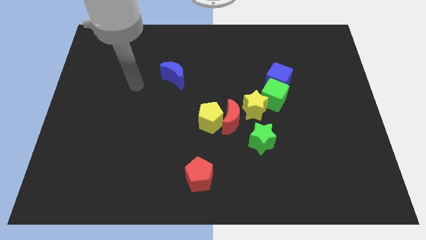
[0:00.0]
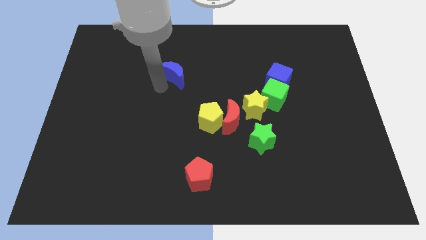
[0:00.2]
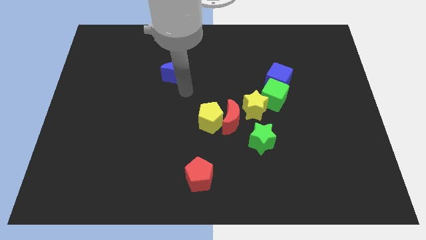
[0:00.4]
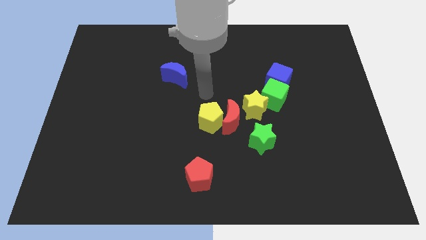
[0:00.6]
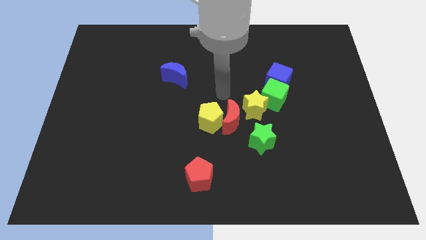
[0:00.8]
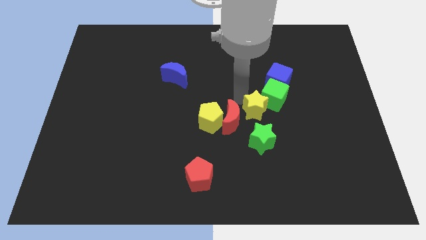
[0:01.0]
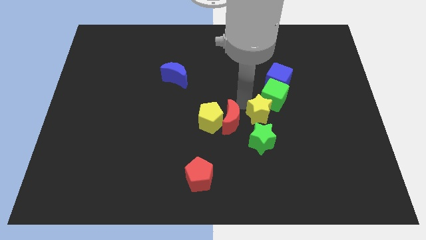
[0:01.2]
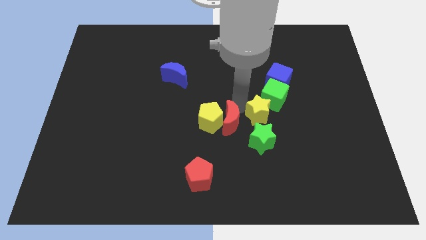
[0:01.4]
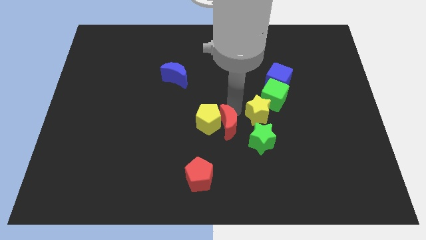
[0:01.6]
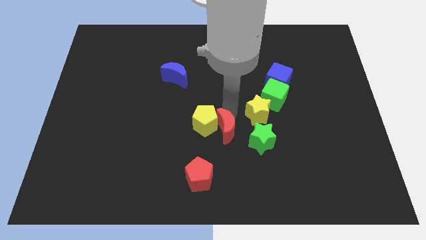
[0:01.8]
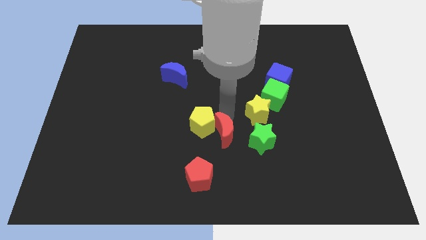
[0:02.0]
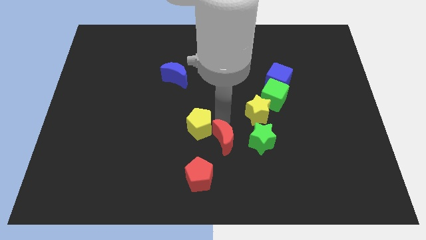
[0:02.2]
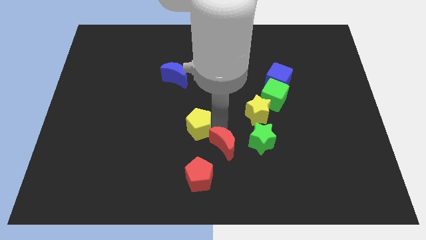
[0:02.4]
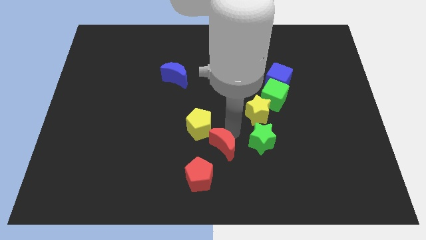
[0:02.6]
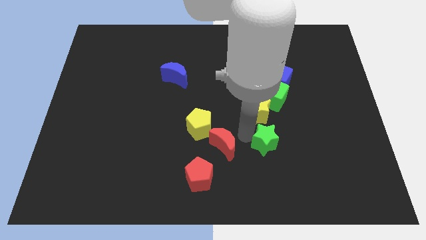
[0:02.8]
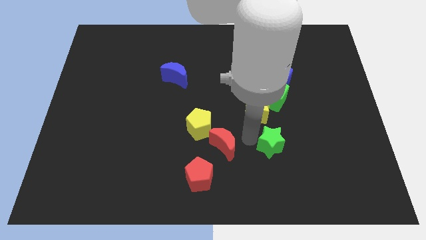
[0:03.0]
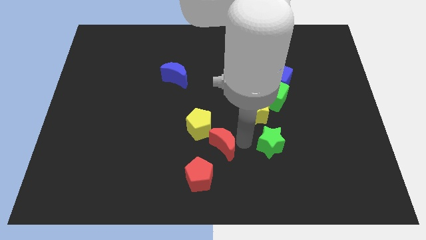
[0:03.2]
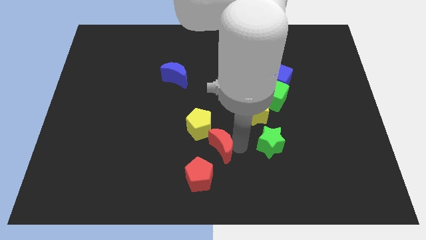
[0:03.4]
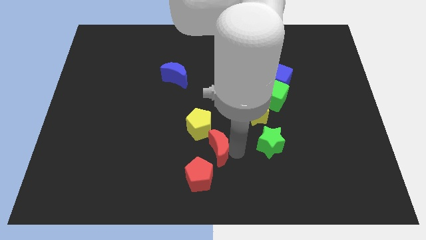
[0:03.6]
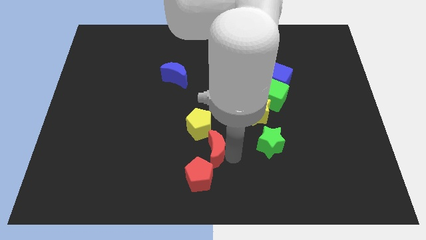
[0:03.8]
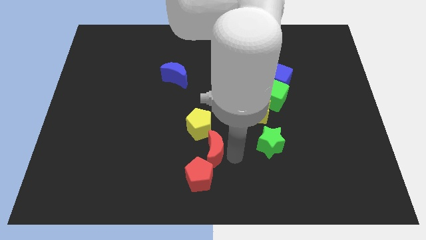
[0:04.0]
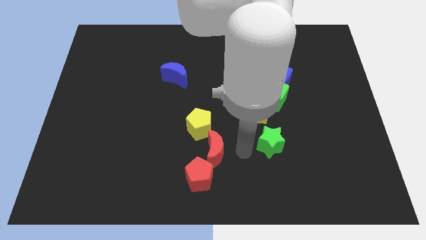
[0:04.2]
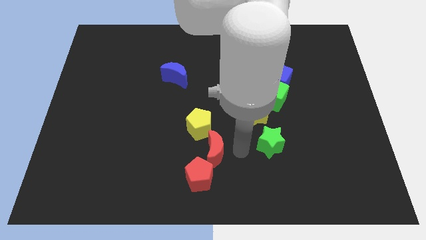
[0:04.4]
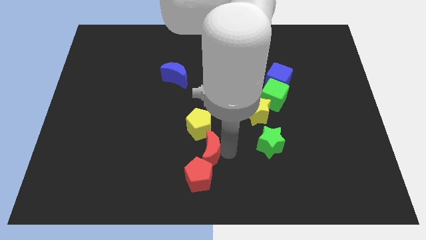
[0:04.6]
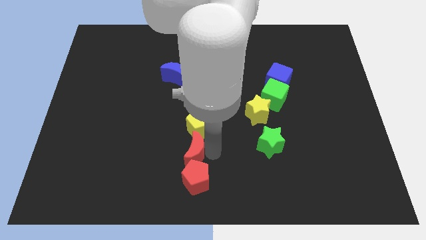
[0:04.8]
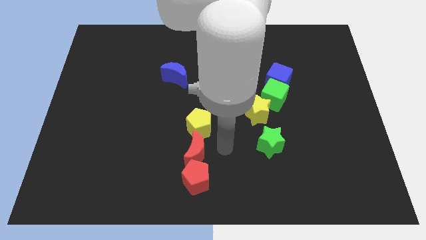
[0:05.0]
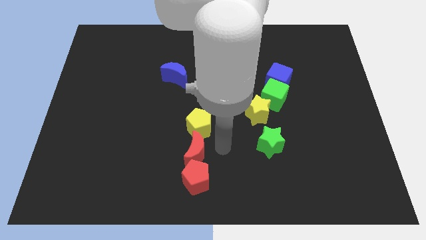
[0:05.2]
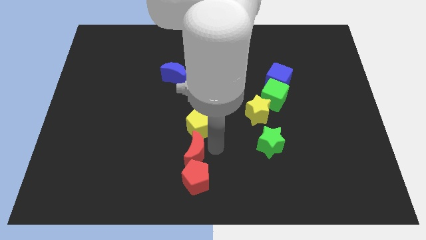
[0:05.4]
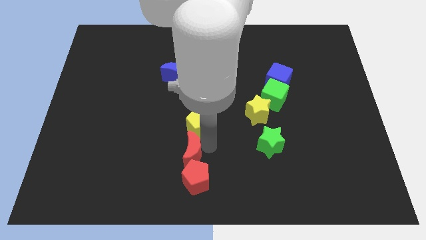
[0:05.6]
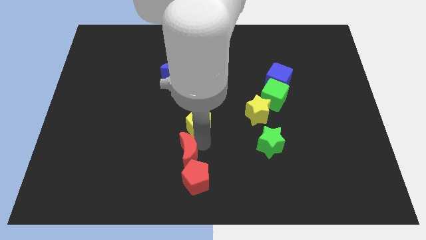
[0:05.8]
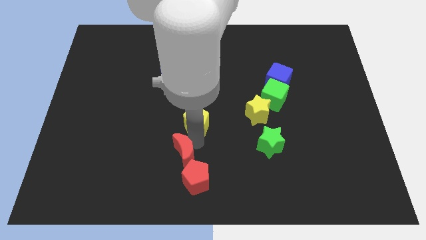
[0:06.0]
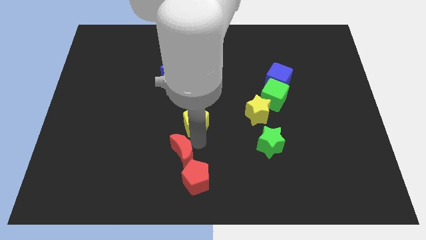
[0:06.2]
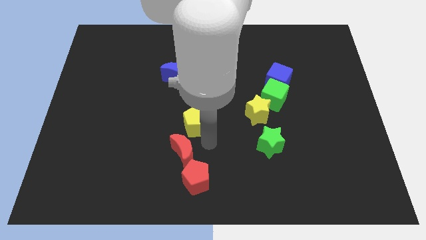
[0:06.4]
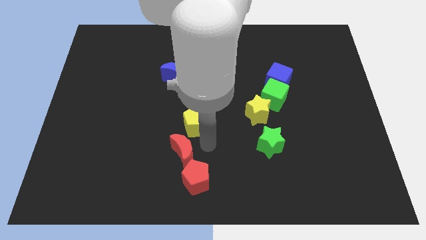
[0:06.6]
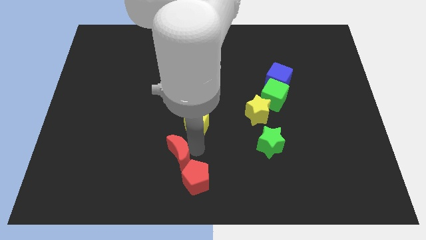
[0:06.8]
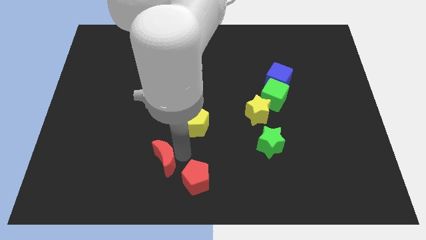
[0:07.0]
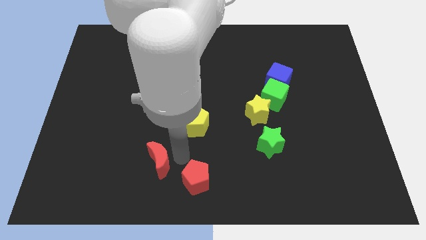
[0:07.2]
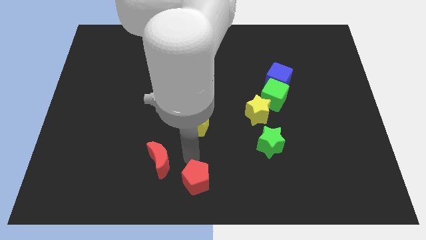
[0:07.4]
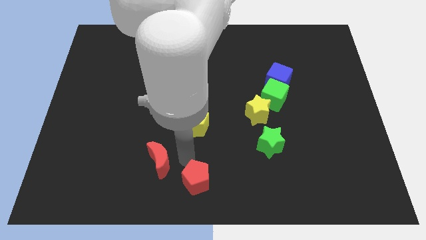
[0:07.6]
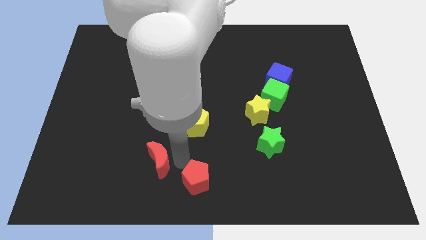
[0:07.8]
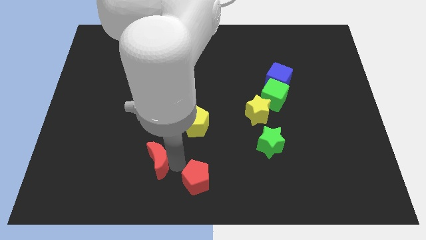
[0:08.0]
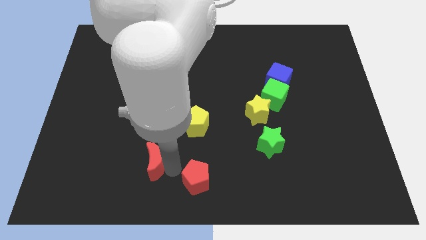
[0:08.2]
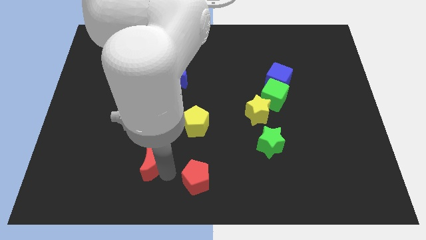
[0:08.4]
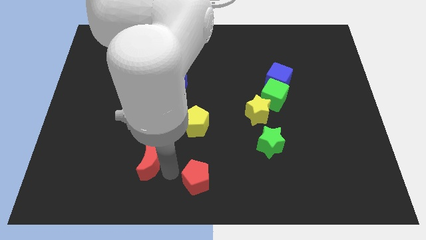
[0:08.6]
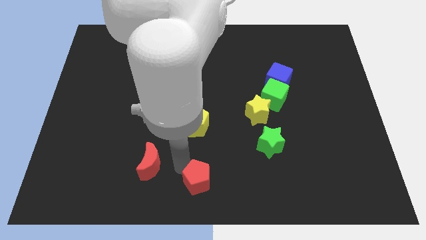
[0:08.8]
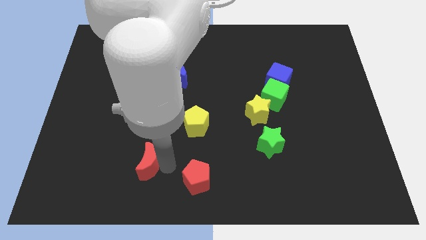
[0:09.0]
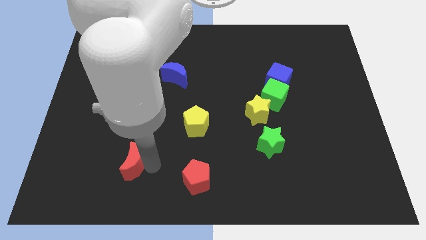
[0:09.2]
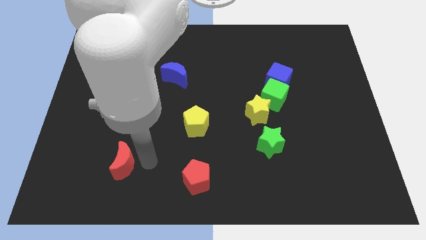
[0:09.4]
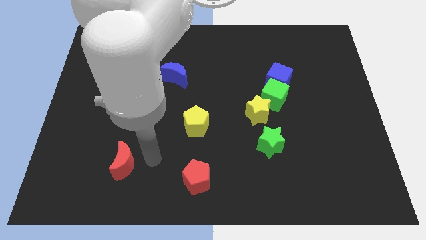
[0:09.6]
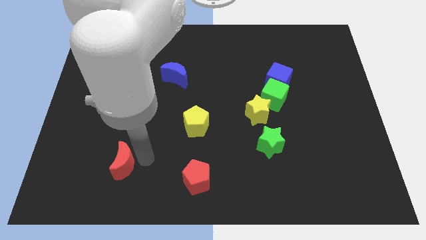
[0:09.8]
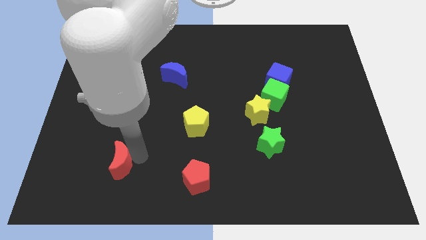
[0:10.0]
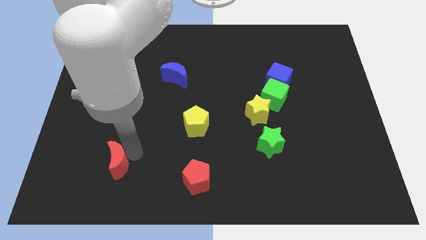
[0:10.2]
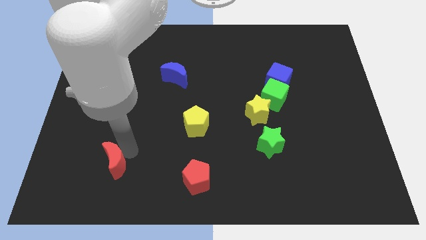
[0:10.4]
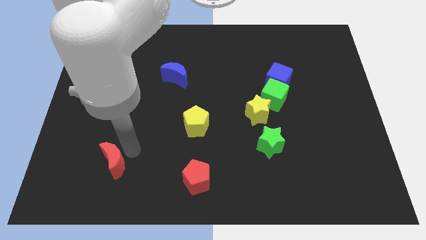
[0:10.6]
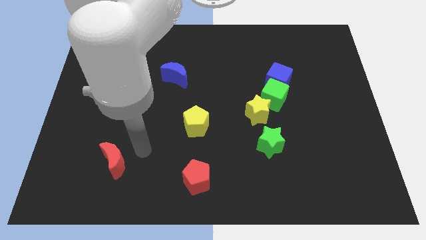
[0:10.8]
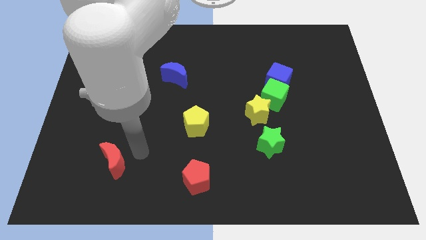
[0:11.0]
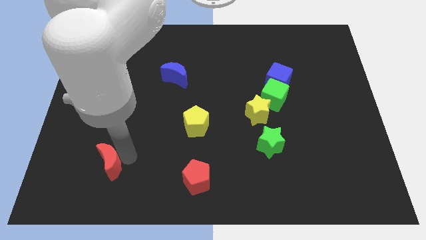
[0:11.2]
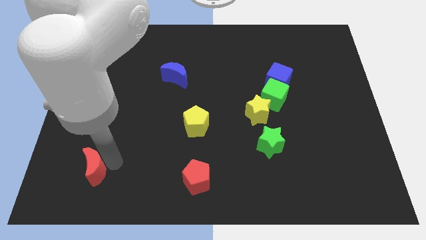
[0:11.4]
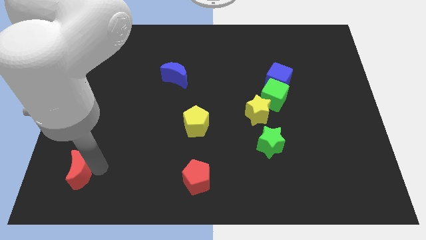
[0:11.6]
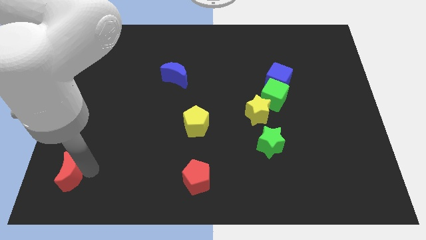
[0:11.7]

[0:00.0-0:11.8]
slide the red moon to the bottom left corner

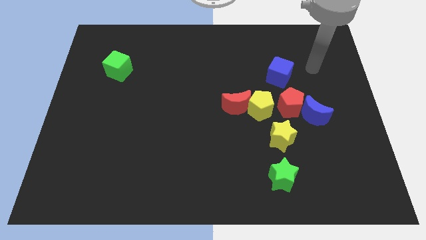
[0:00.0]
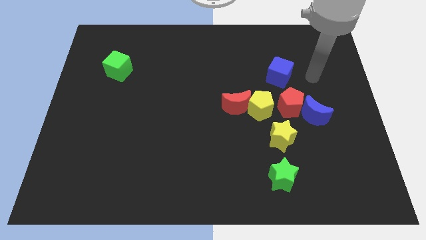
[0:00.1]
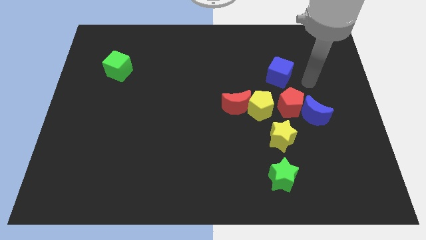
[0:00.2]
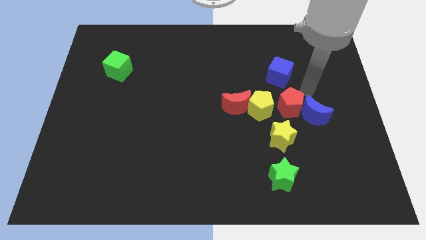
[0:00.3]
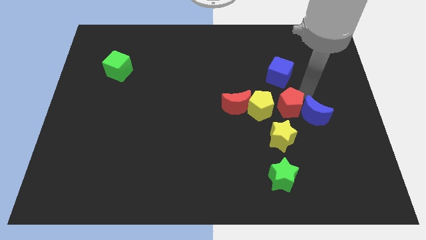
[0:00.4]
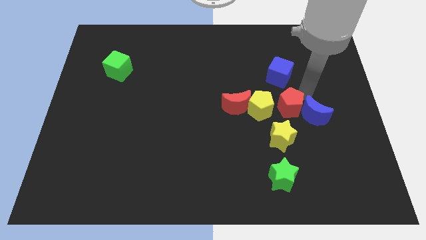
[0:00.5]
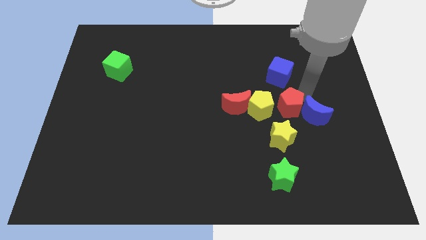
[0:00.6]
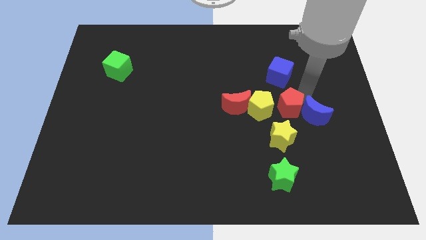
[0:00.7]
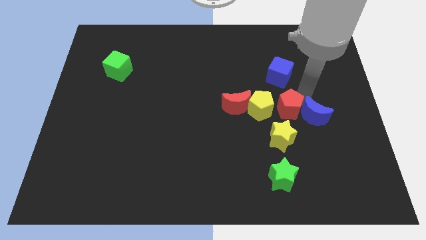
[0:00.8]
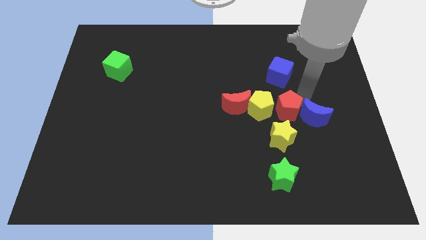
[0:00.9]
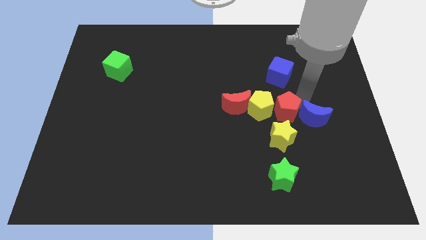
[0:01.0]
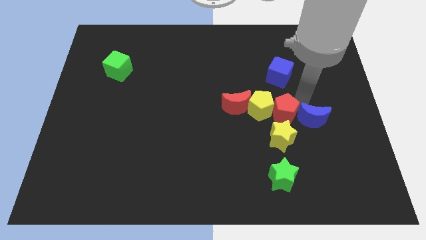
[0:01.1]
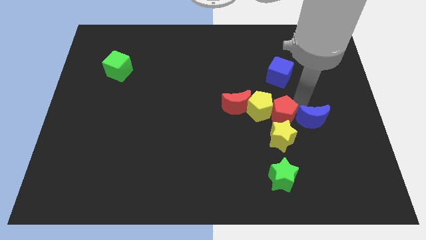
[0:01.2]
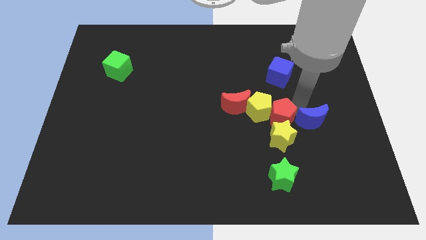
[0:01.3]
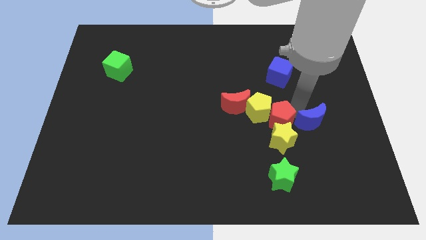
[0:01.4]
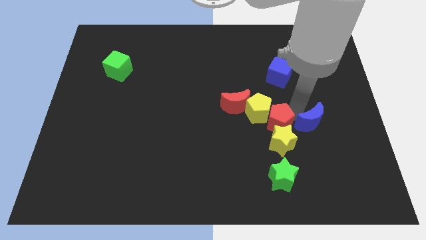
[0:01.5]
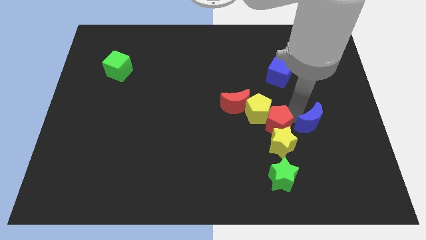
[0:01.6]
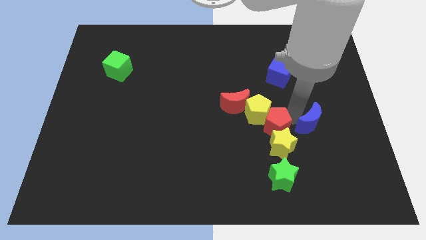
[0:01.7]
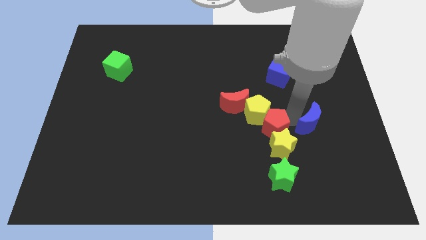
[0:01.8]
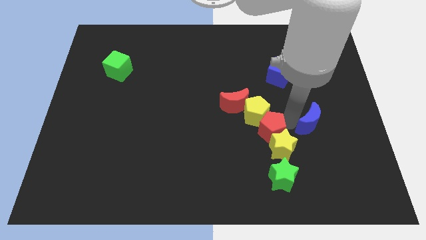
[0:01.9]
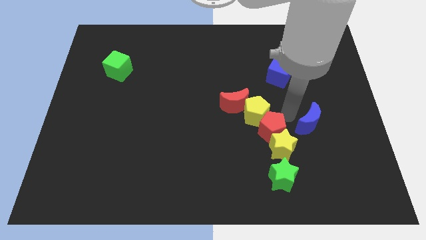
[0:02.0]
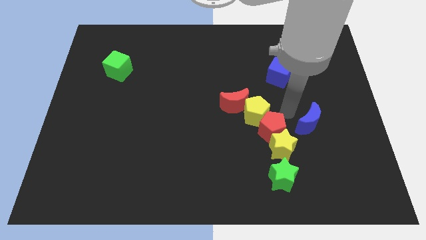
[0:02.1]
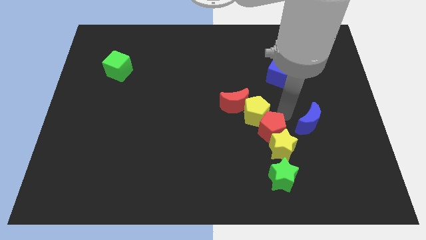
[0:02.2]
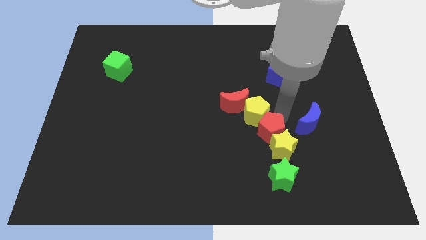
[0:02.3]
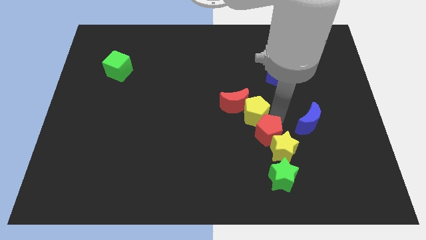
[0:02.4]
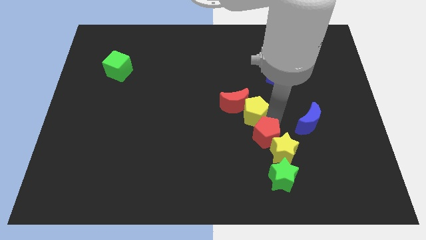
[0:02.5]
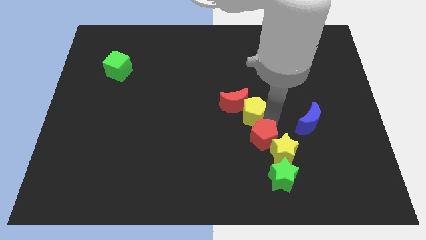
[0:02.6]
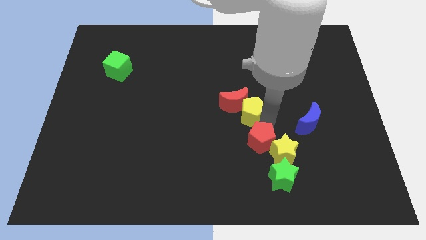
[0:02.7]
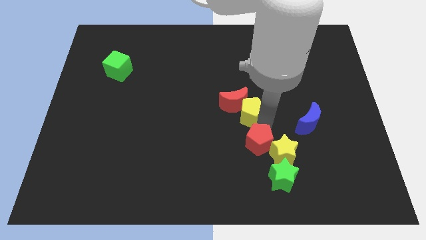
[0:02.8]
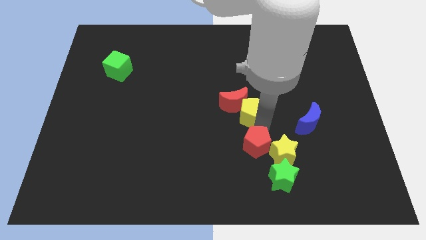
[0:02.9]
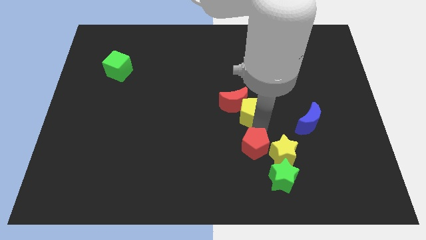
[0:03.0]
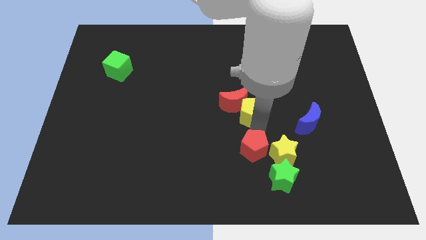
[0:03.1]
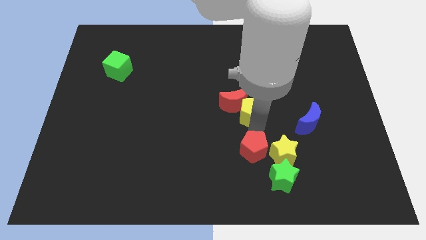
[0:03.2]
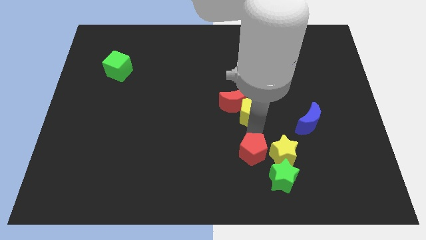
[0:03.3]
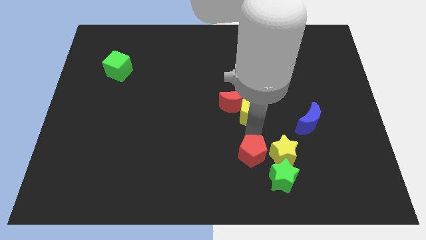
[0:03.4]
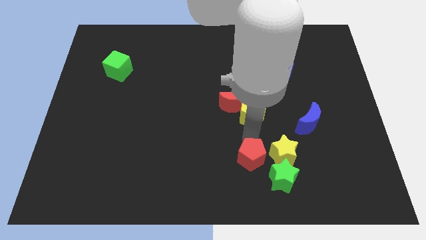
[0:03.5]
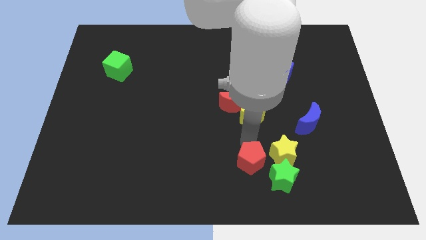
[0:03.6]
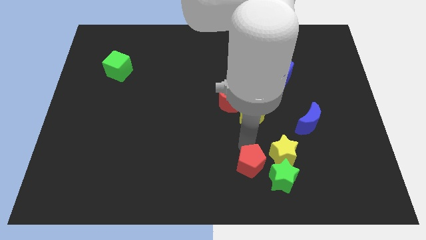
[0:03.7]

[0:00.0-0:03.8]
push the red pentagon to the bottom
